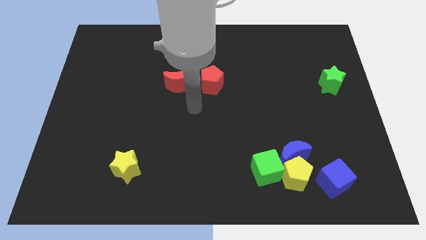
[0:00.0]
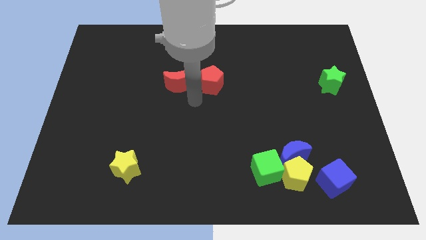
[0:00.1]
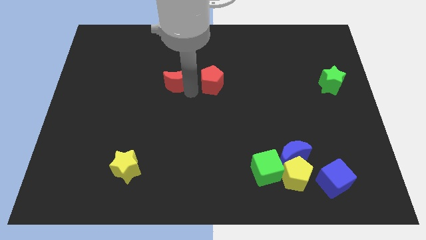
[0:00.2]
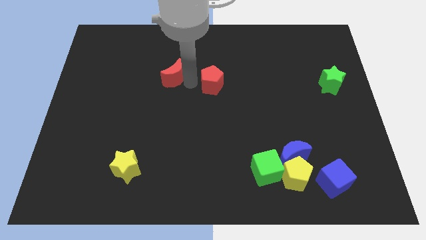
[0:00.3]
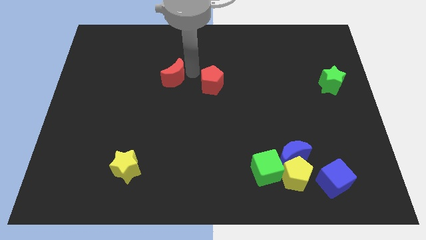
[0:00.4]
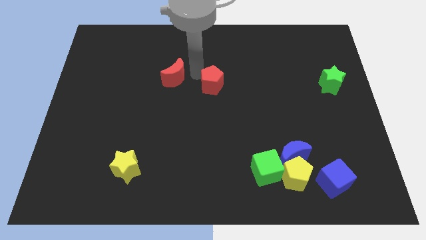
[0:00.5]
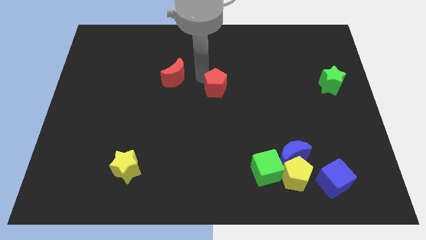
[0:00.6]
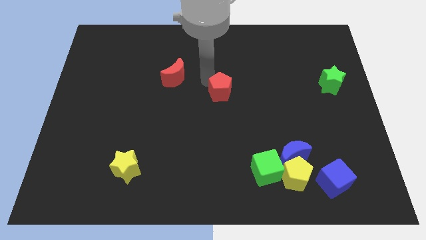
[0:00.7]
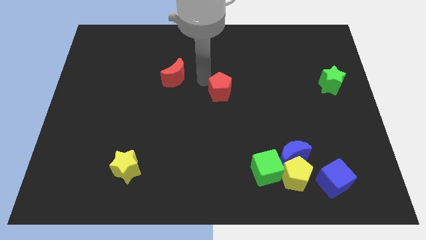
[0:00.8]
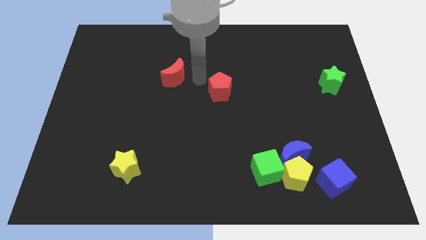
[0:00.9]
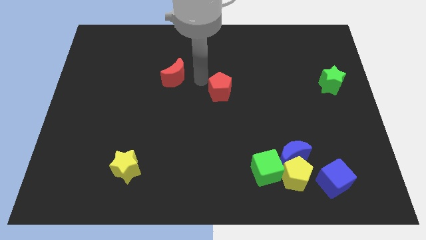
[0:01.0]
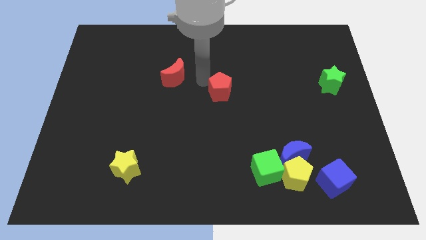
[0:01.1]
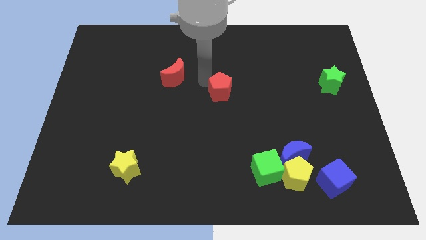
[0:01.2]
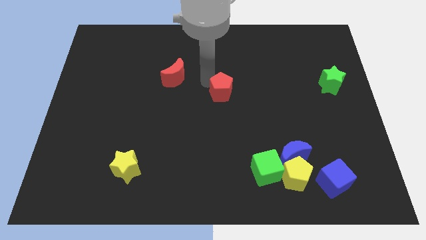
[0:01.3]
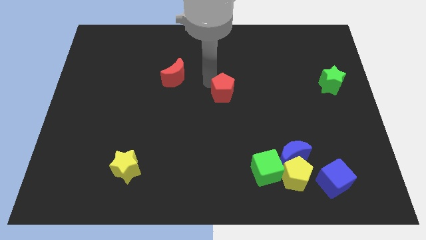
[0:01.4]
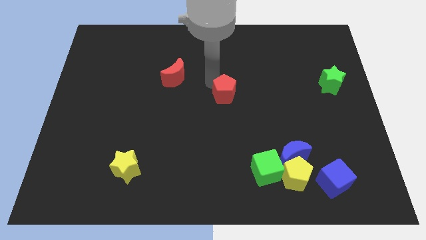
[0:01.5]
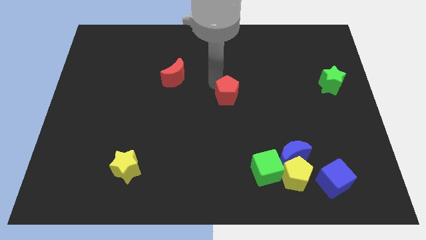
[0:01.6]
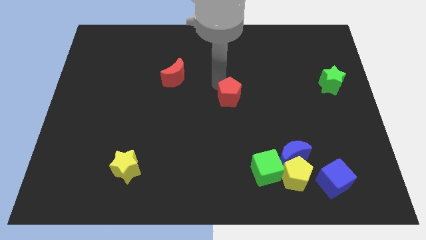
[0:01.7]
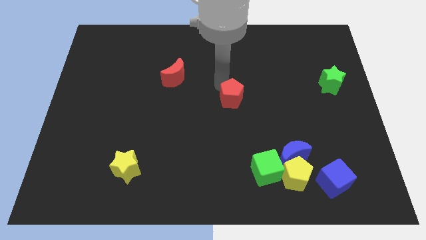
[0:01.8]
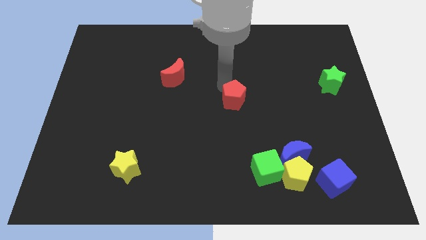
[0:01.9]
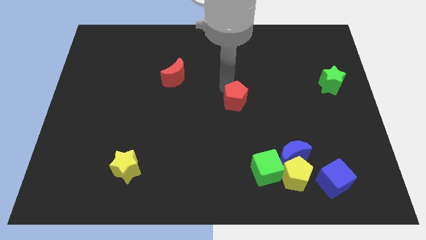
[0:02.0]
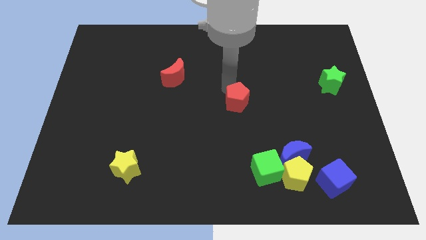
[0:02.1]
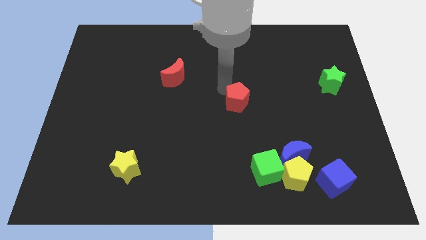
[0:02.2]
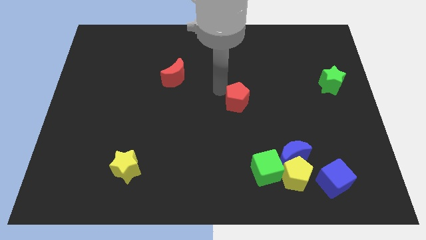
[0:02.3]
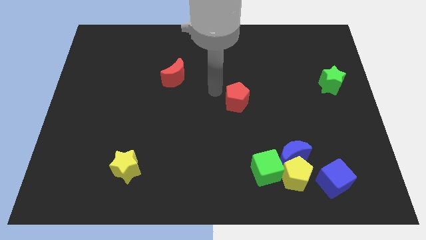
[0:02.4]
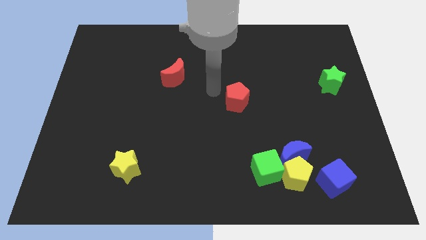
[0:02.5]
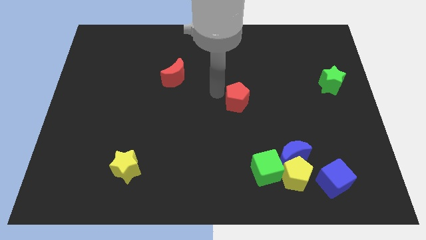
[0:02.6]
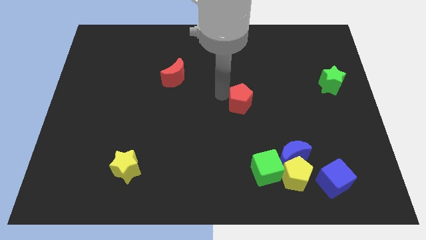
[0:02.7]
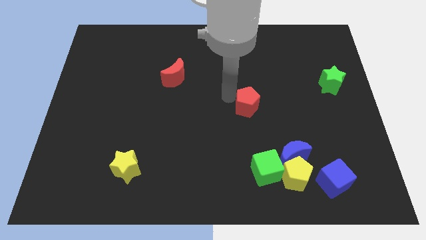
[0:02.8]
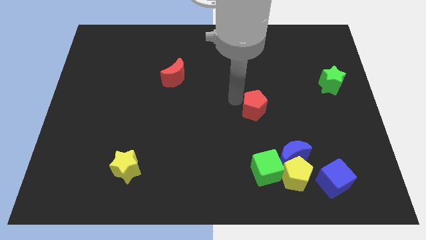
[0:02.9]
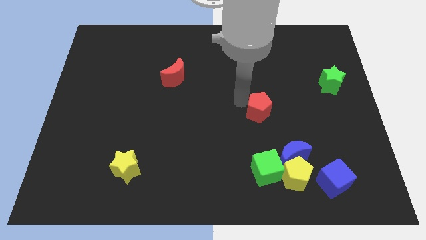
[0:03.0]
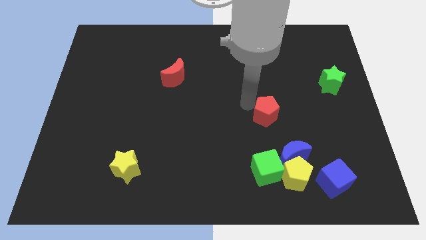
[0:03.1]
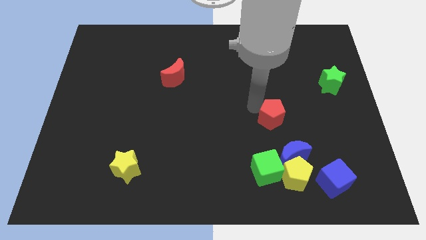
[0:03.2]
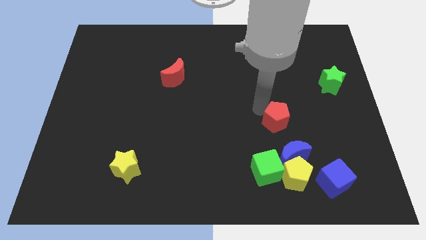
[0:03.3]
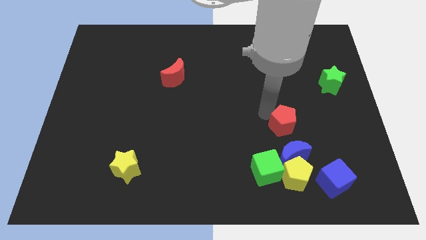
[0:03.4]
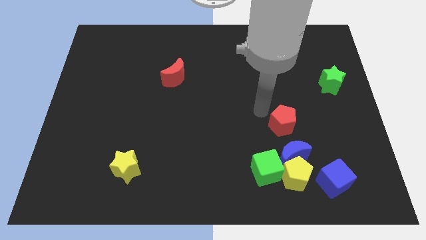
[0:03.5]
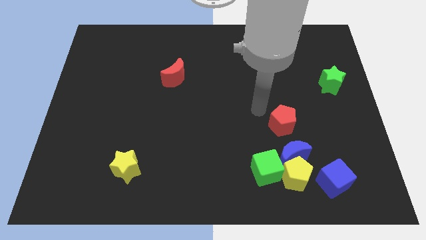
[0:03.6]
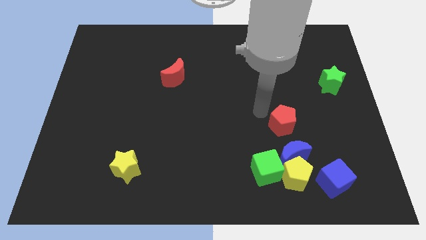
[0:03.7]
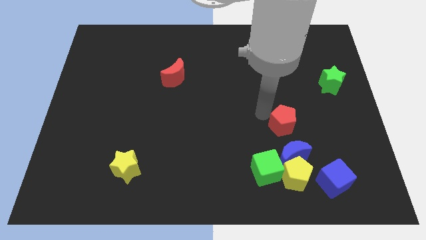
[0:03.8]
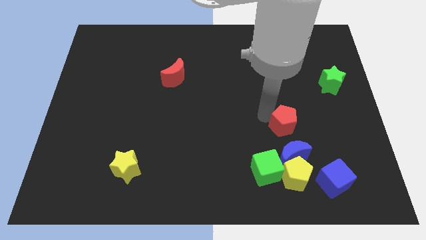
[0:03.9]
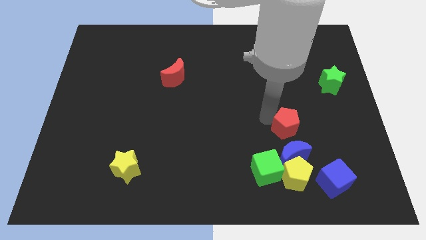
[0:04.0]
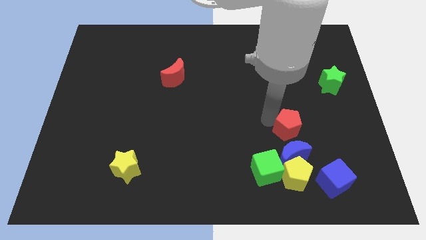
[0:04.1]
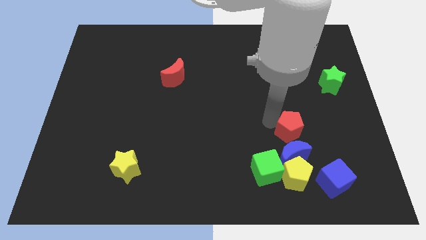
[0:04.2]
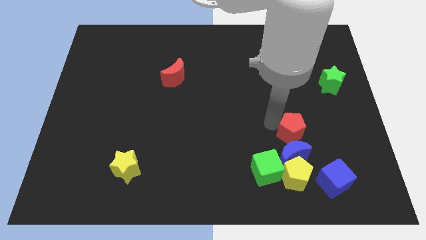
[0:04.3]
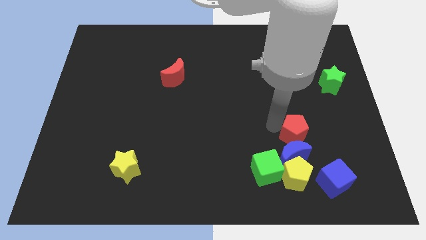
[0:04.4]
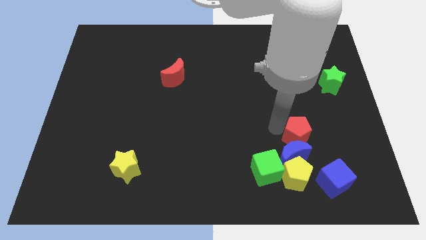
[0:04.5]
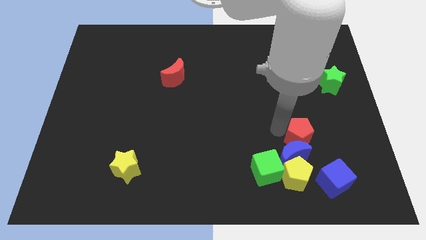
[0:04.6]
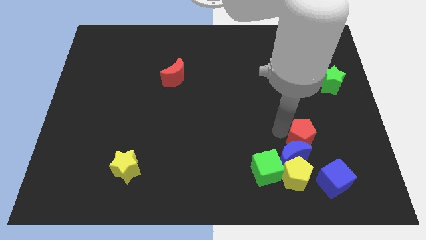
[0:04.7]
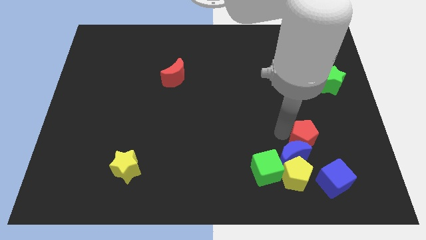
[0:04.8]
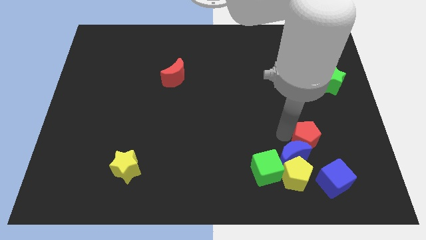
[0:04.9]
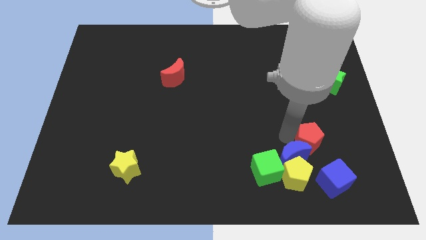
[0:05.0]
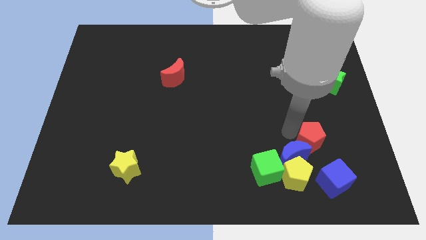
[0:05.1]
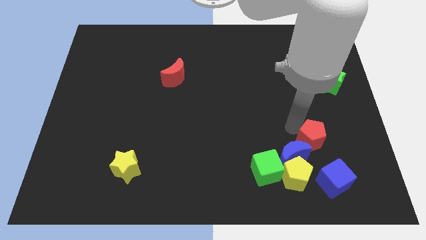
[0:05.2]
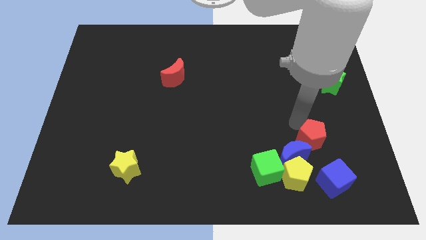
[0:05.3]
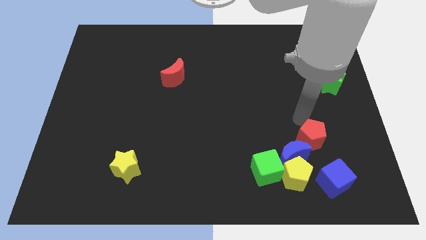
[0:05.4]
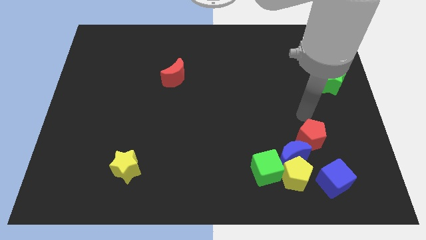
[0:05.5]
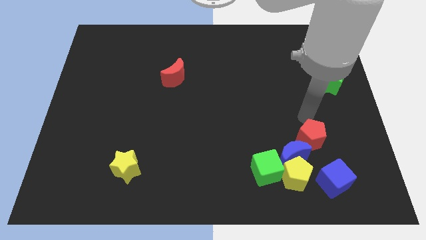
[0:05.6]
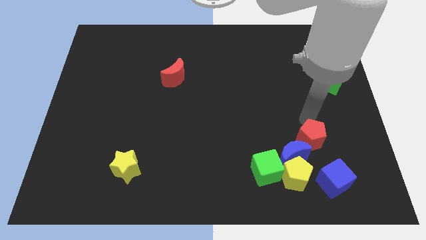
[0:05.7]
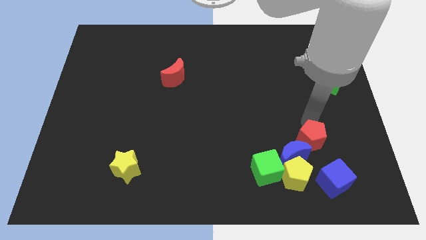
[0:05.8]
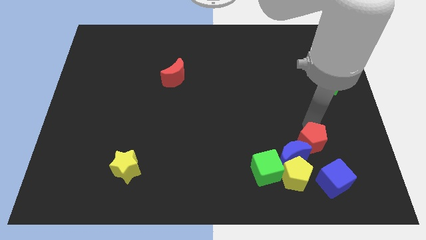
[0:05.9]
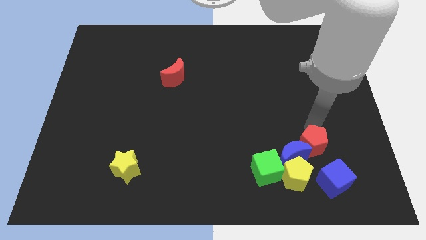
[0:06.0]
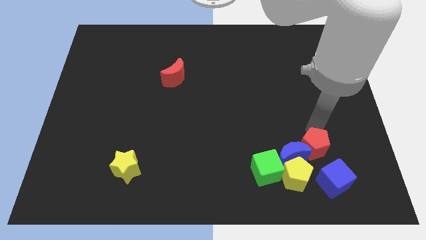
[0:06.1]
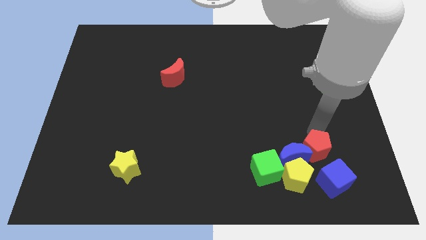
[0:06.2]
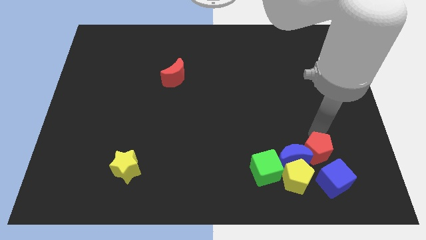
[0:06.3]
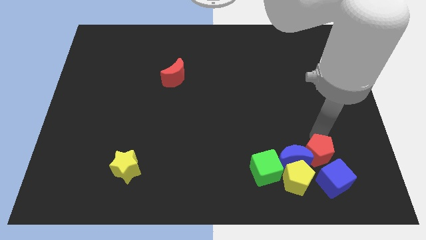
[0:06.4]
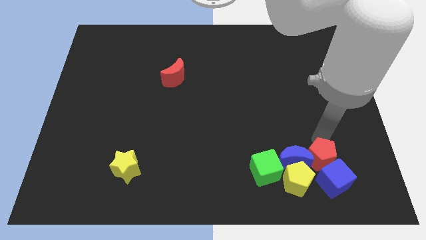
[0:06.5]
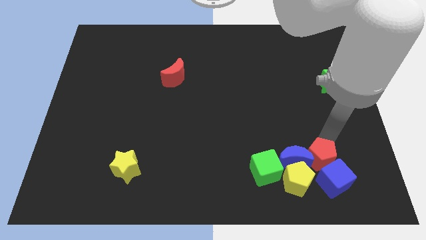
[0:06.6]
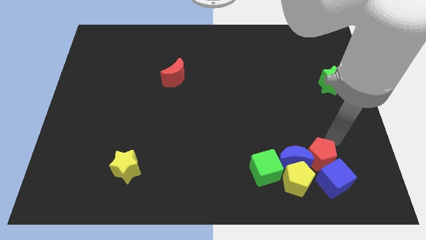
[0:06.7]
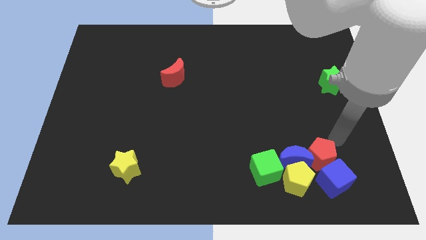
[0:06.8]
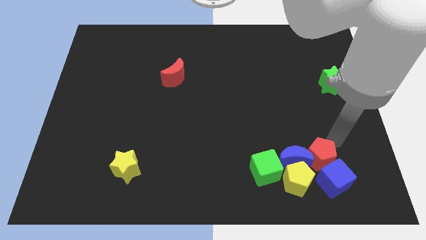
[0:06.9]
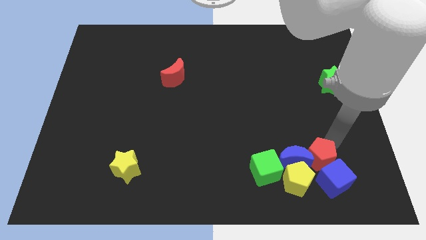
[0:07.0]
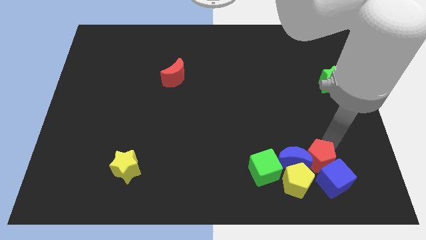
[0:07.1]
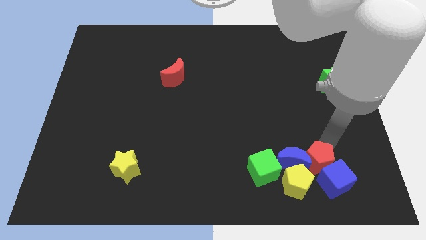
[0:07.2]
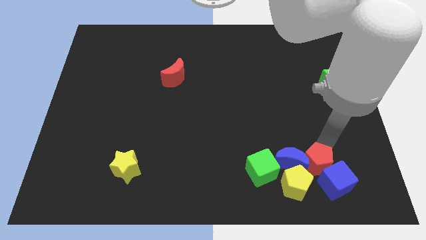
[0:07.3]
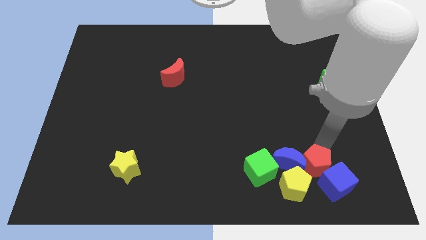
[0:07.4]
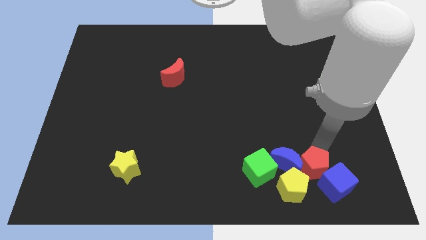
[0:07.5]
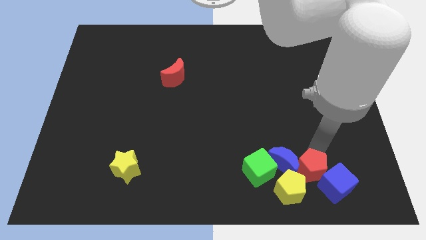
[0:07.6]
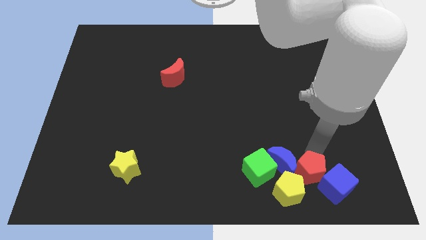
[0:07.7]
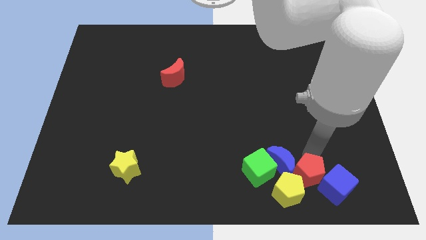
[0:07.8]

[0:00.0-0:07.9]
put the red pentagon to the yellow pentagon
